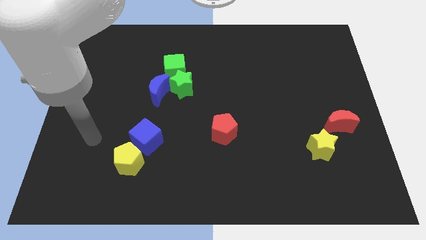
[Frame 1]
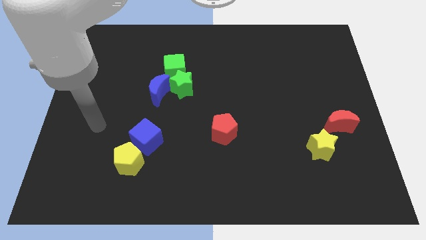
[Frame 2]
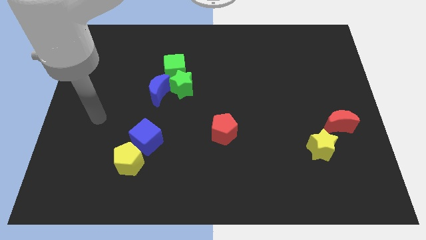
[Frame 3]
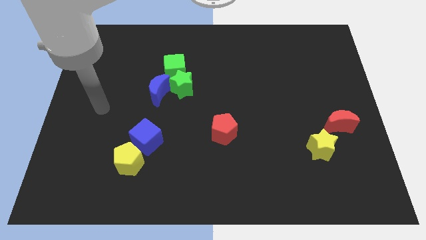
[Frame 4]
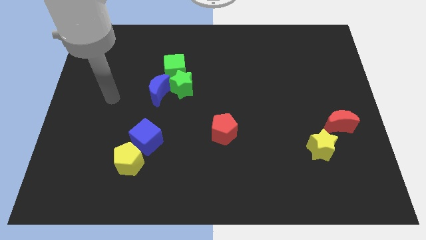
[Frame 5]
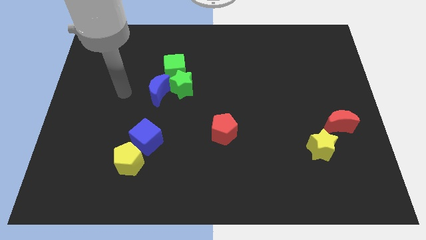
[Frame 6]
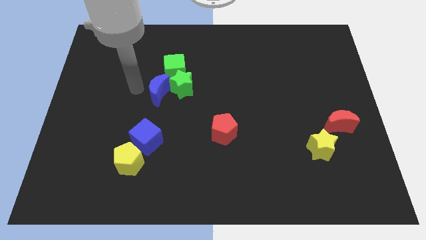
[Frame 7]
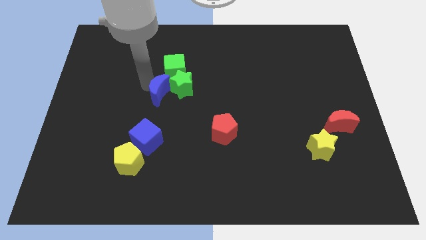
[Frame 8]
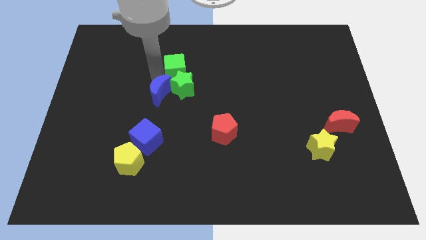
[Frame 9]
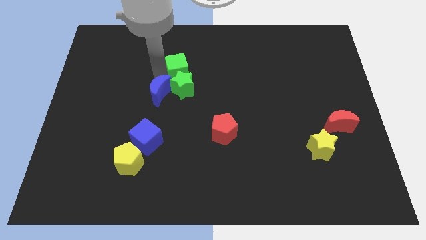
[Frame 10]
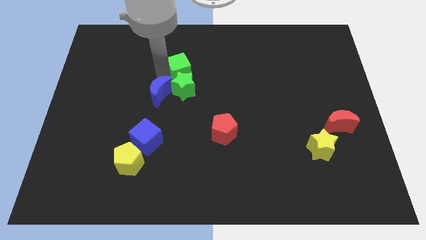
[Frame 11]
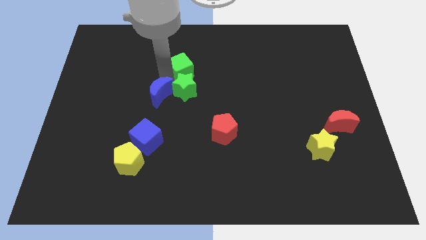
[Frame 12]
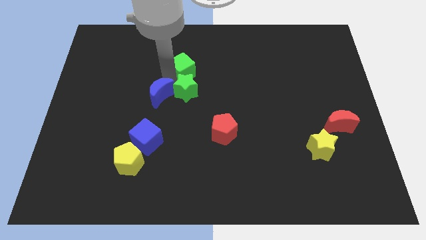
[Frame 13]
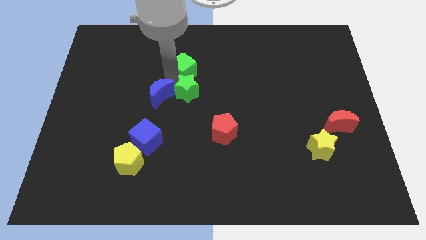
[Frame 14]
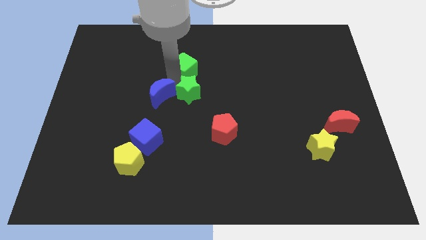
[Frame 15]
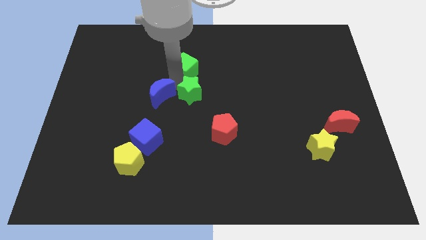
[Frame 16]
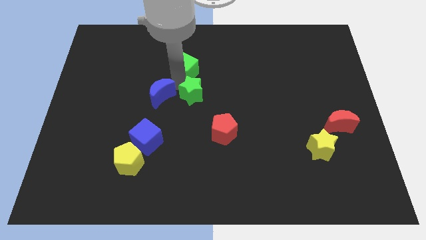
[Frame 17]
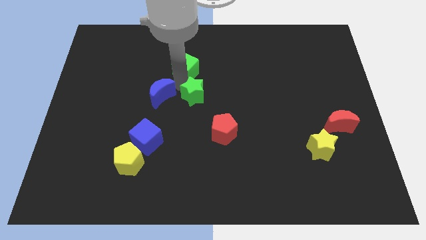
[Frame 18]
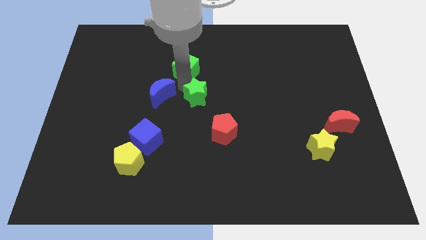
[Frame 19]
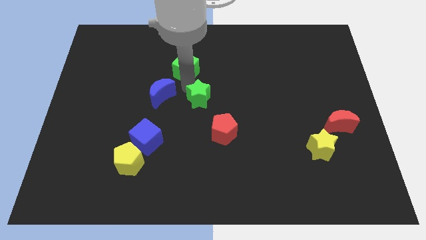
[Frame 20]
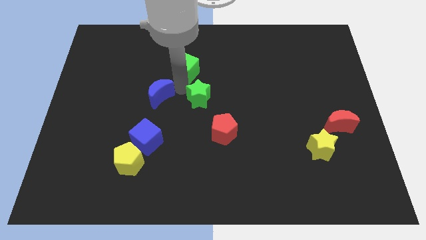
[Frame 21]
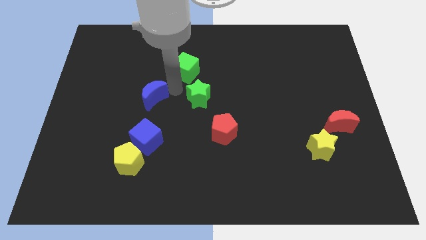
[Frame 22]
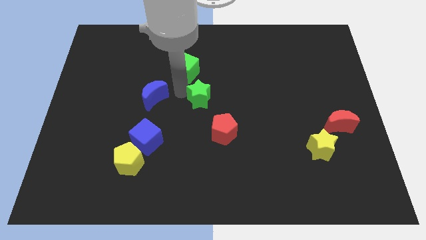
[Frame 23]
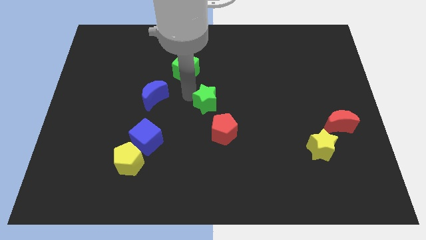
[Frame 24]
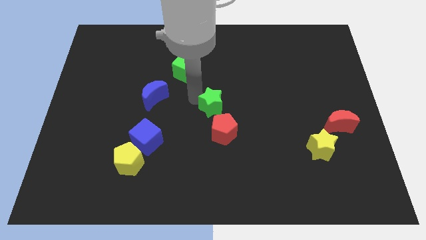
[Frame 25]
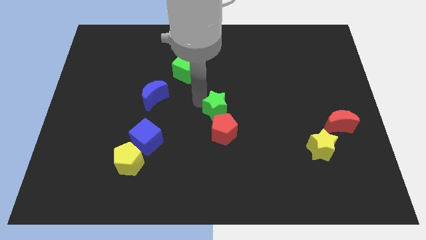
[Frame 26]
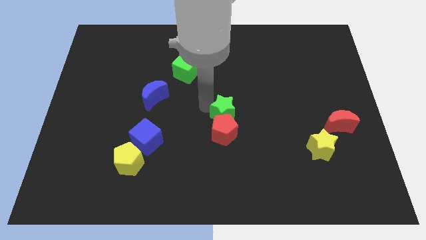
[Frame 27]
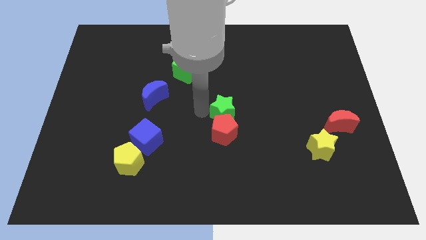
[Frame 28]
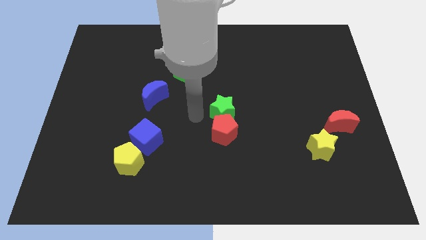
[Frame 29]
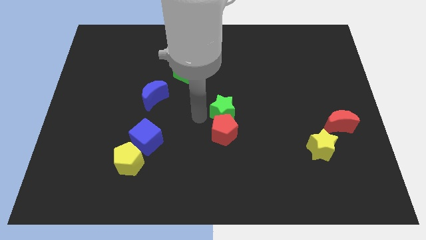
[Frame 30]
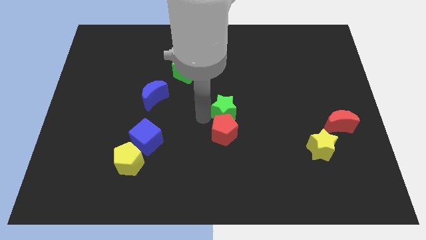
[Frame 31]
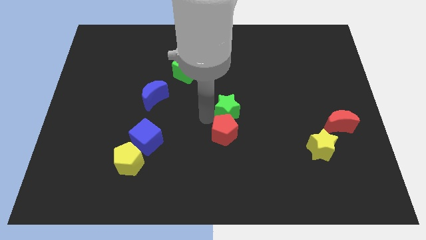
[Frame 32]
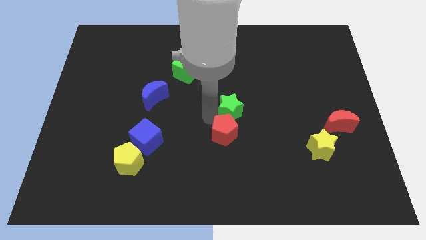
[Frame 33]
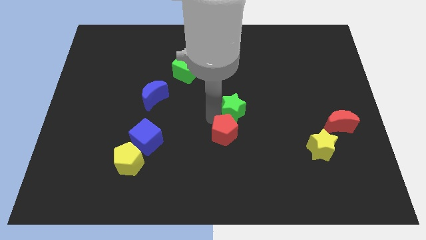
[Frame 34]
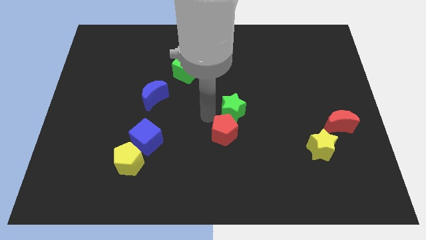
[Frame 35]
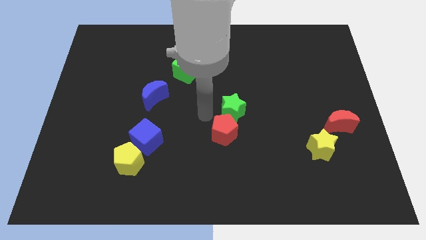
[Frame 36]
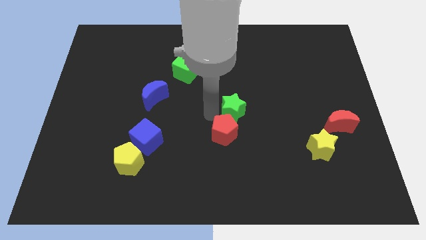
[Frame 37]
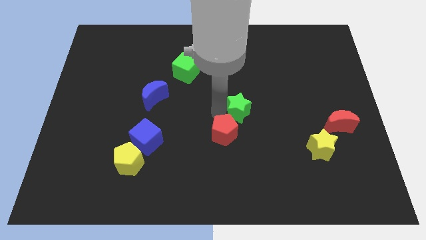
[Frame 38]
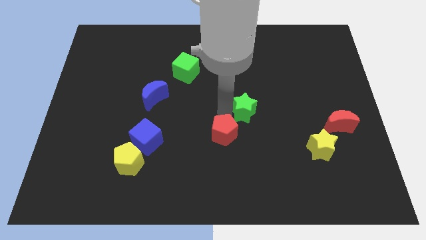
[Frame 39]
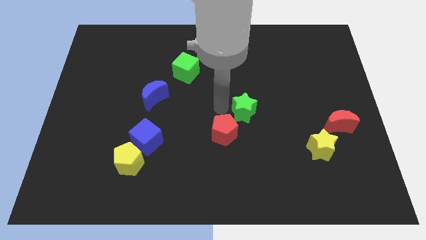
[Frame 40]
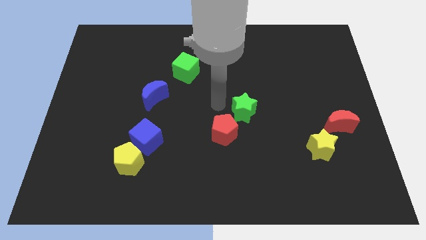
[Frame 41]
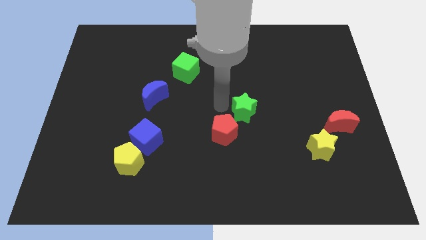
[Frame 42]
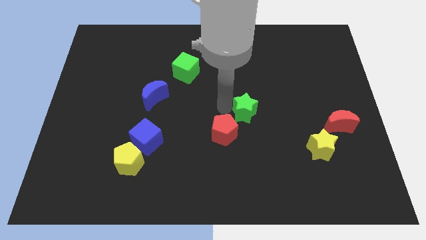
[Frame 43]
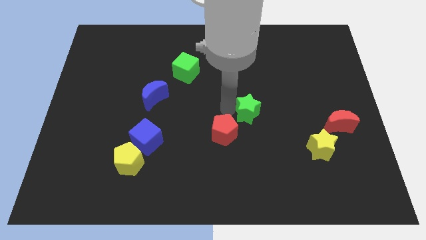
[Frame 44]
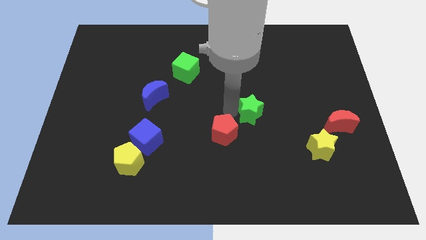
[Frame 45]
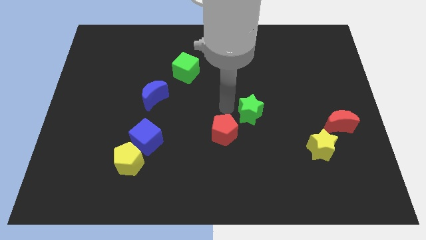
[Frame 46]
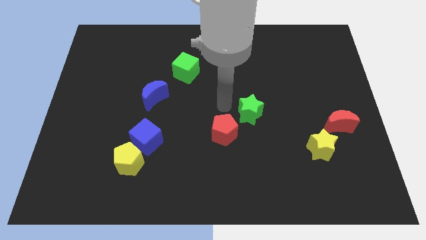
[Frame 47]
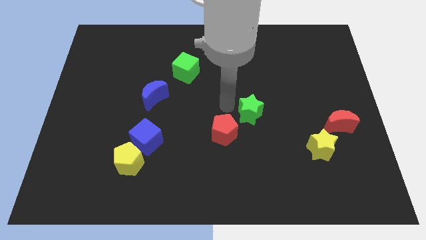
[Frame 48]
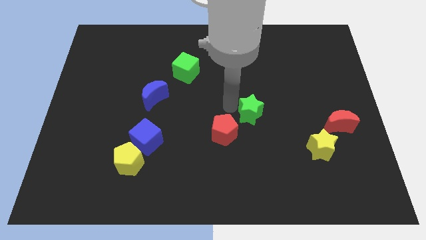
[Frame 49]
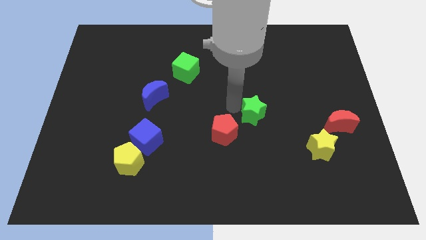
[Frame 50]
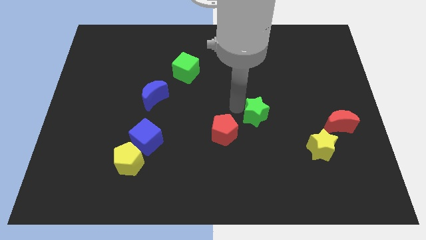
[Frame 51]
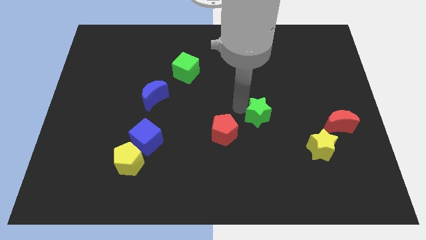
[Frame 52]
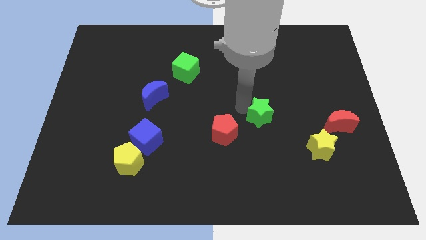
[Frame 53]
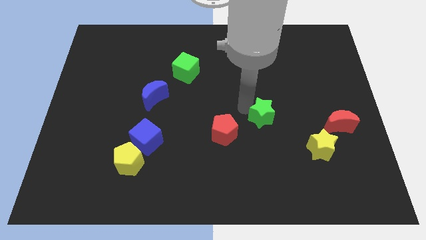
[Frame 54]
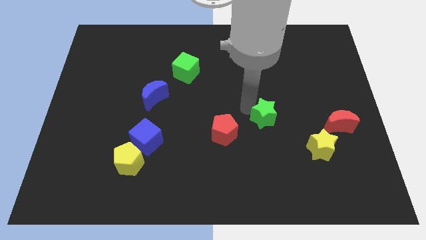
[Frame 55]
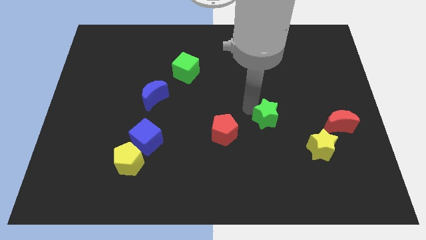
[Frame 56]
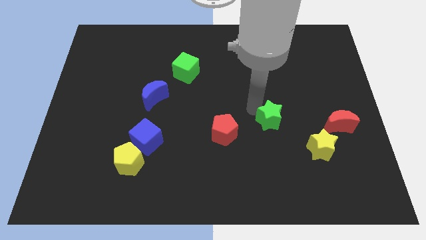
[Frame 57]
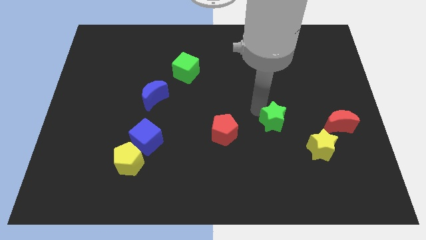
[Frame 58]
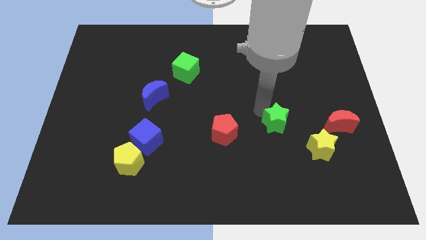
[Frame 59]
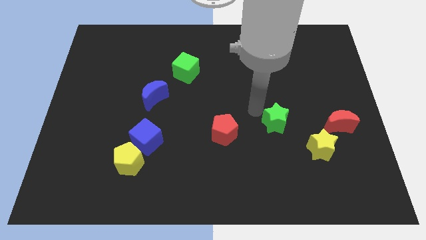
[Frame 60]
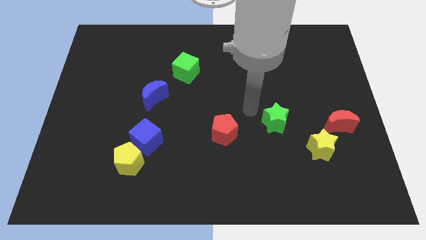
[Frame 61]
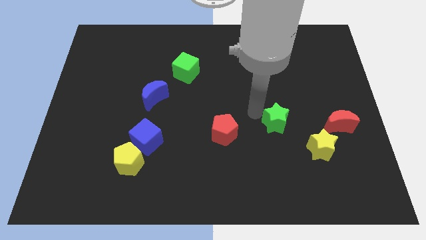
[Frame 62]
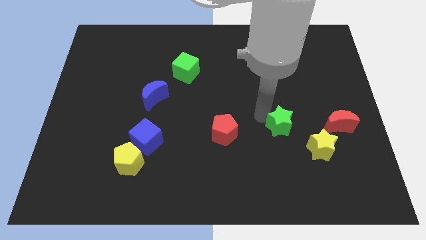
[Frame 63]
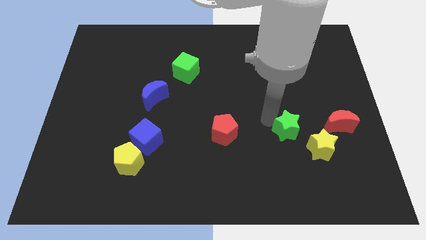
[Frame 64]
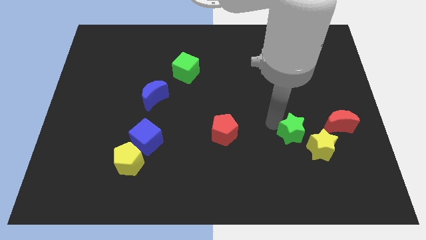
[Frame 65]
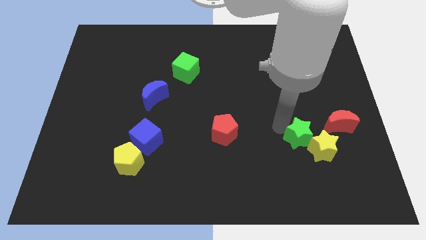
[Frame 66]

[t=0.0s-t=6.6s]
put the green star close to the yellow star

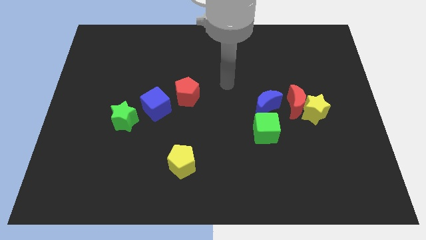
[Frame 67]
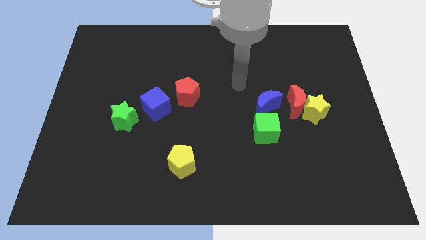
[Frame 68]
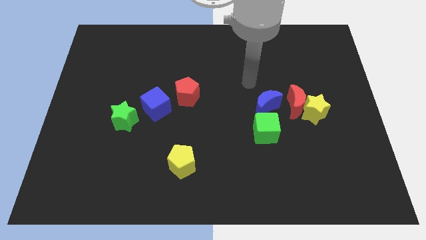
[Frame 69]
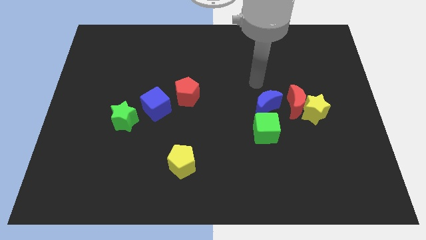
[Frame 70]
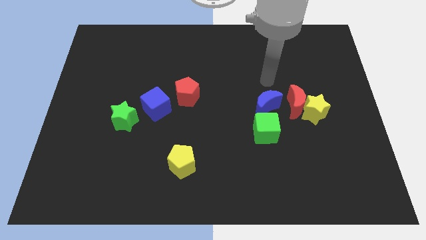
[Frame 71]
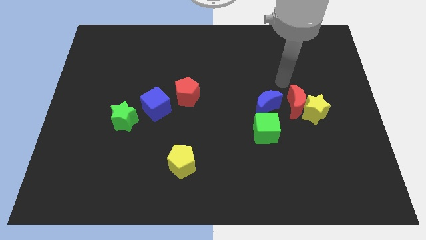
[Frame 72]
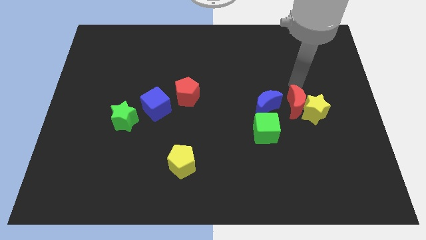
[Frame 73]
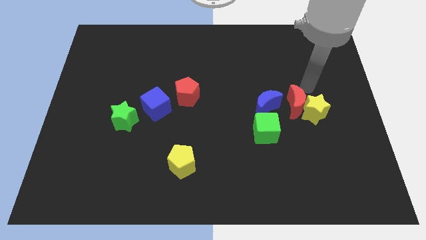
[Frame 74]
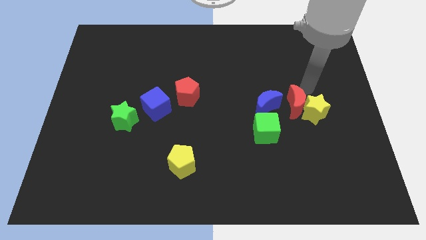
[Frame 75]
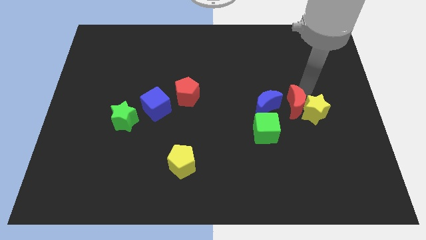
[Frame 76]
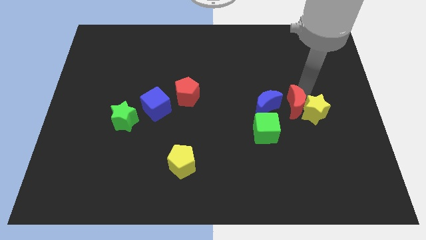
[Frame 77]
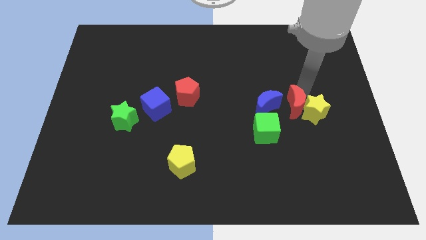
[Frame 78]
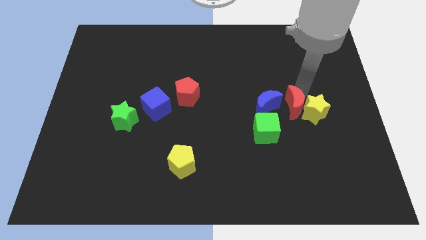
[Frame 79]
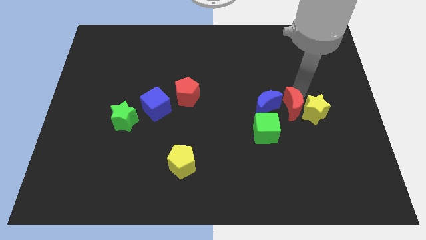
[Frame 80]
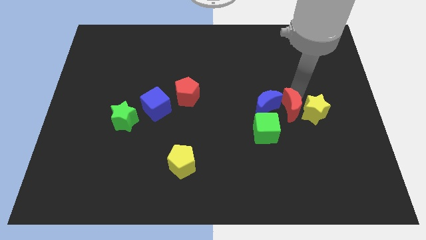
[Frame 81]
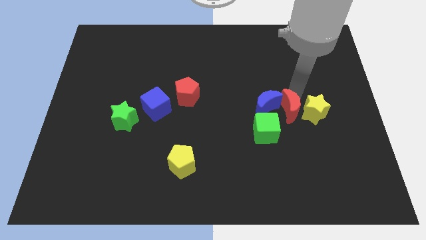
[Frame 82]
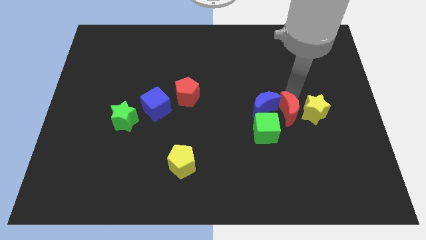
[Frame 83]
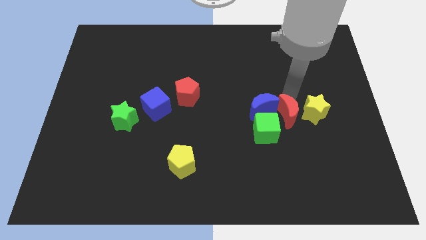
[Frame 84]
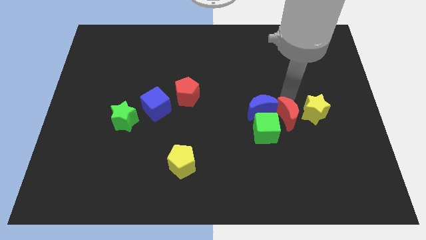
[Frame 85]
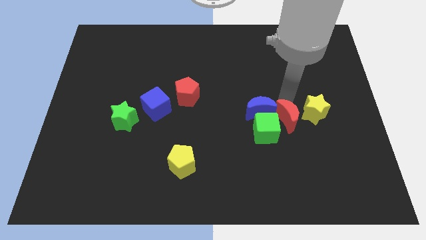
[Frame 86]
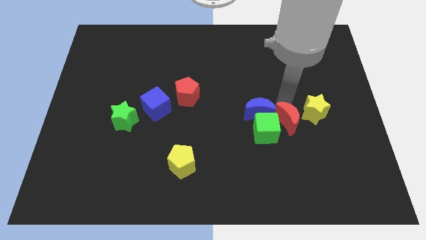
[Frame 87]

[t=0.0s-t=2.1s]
push the red moon to the green cube
